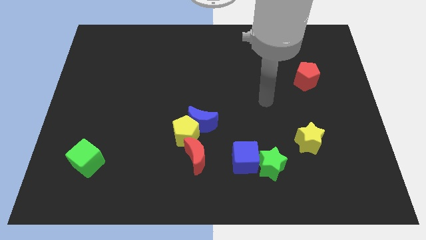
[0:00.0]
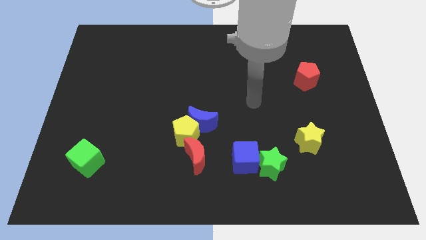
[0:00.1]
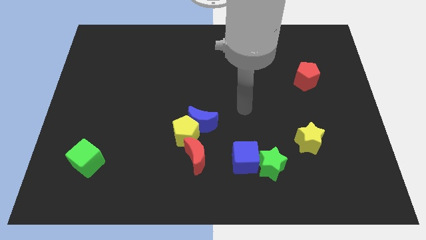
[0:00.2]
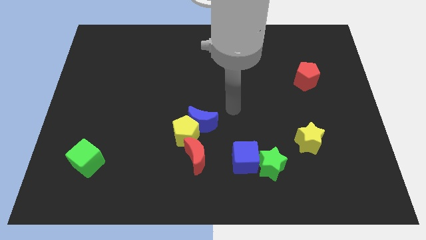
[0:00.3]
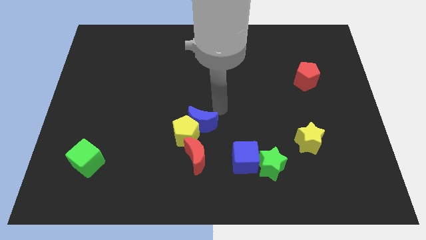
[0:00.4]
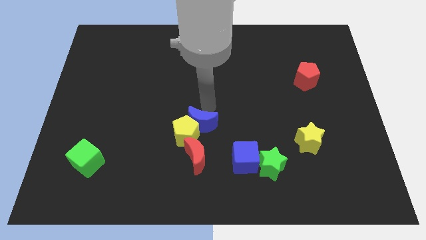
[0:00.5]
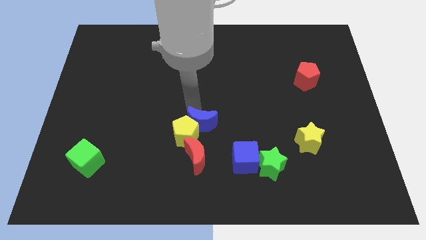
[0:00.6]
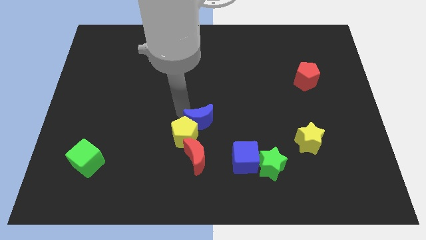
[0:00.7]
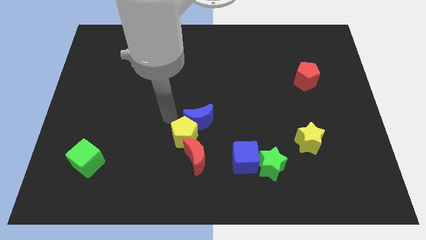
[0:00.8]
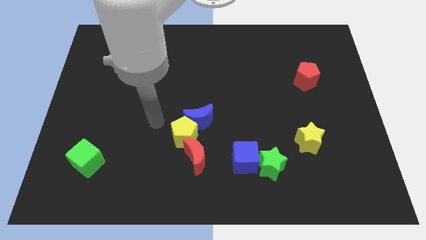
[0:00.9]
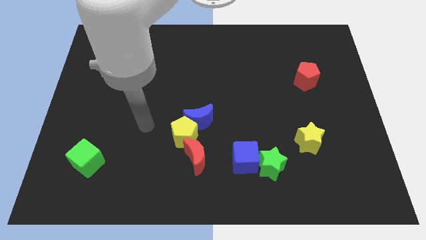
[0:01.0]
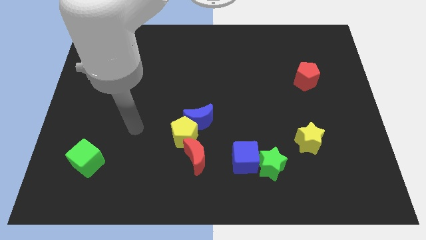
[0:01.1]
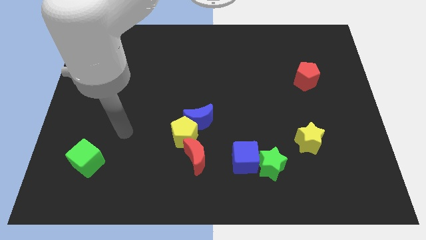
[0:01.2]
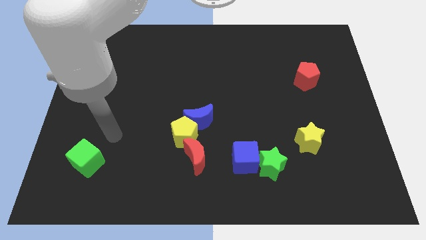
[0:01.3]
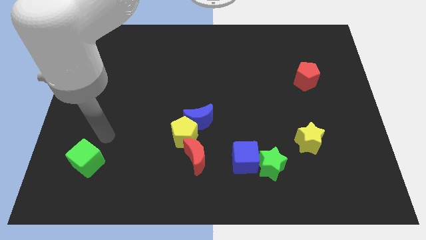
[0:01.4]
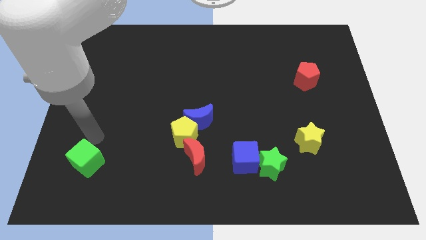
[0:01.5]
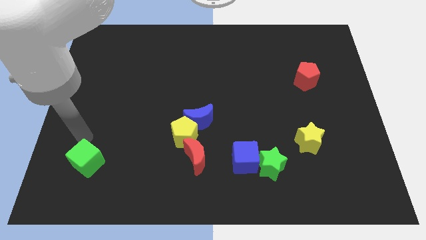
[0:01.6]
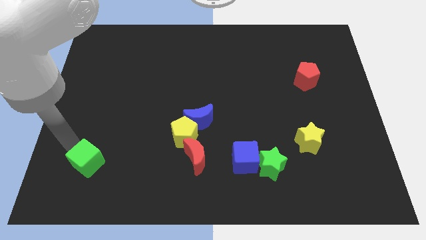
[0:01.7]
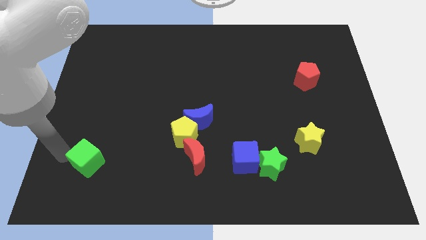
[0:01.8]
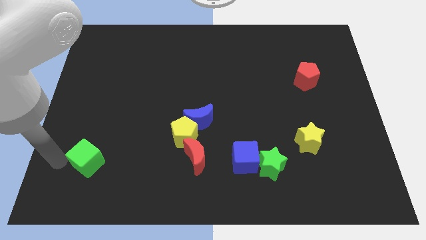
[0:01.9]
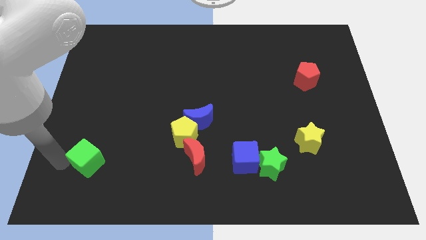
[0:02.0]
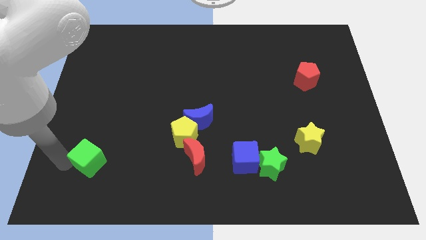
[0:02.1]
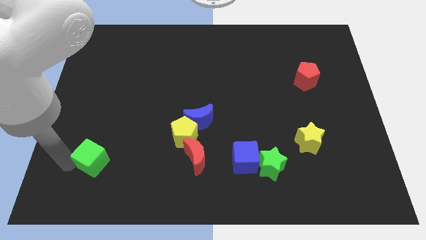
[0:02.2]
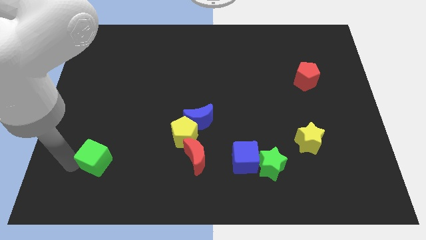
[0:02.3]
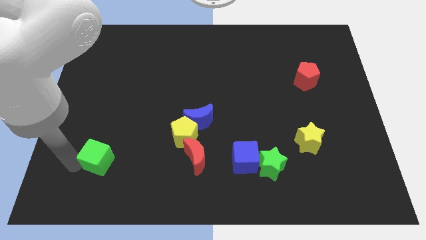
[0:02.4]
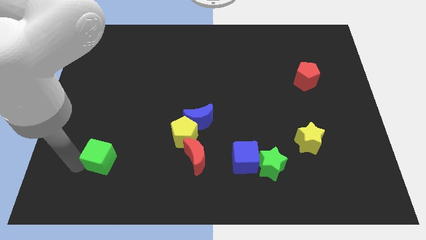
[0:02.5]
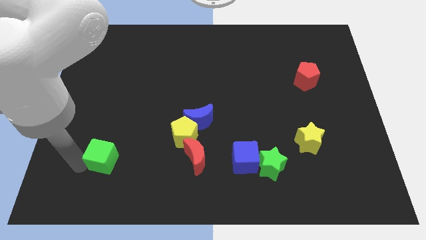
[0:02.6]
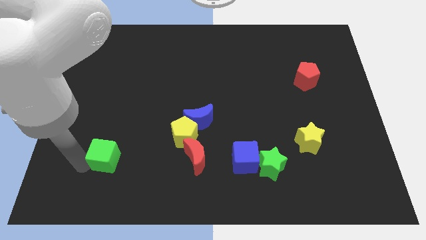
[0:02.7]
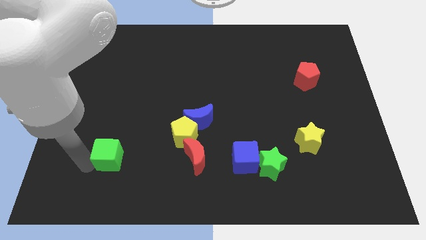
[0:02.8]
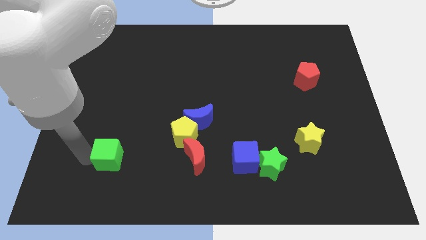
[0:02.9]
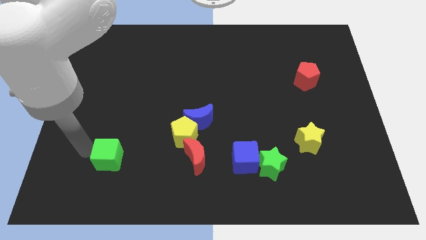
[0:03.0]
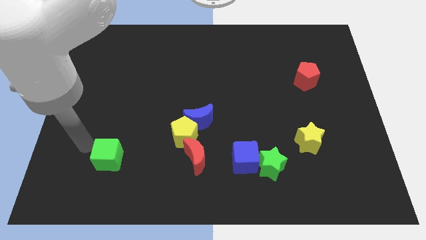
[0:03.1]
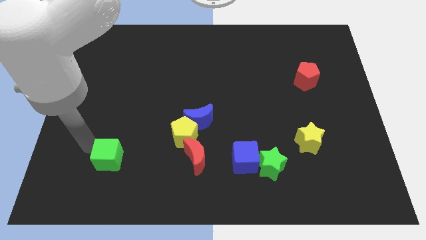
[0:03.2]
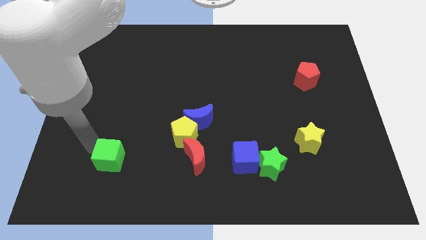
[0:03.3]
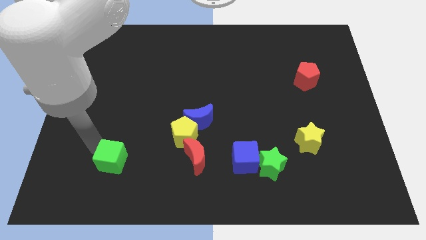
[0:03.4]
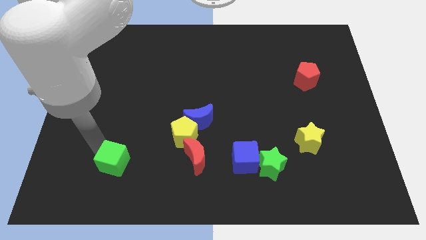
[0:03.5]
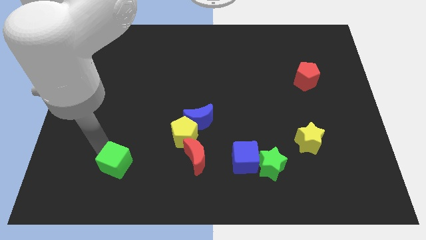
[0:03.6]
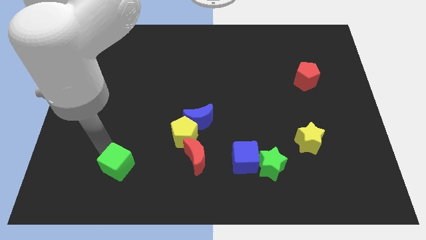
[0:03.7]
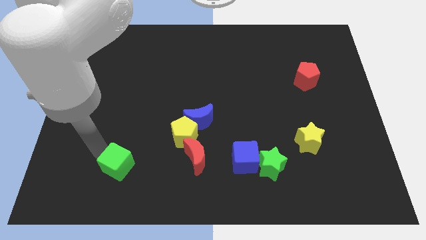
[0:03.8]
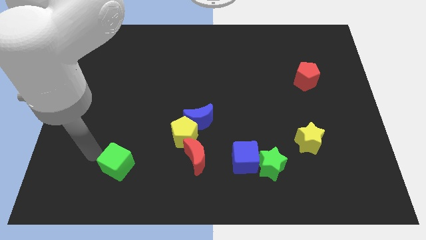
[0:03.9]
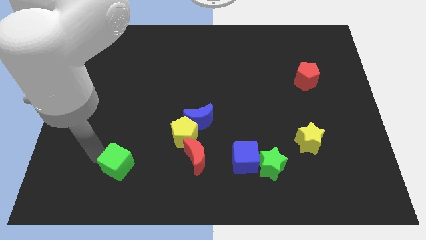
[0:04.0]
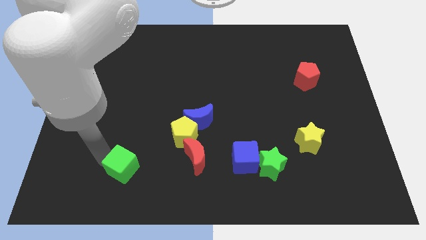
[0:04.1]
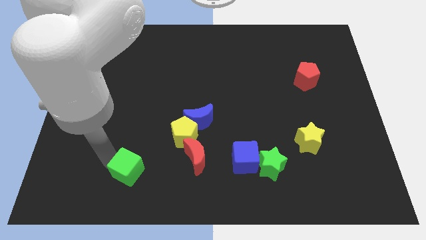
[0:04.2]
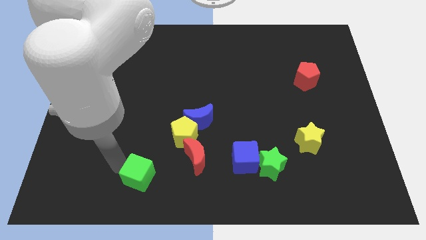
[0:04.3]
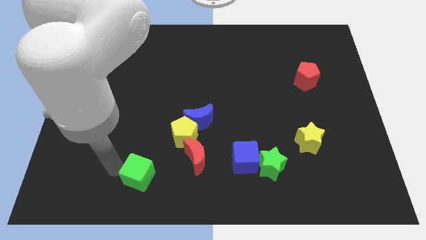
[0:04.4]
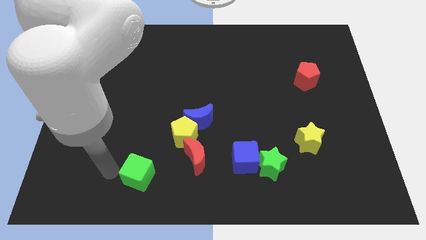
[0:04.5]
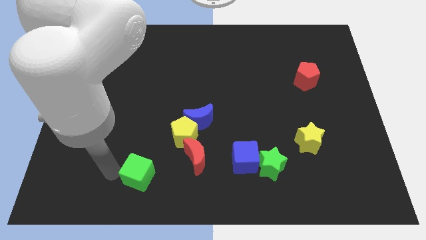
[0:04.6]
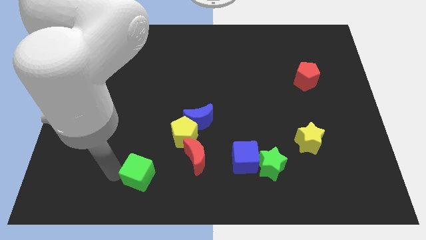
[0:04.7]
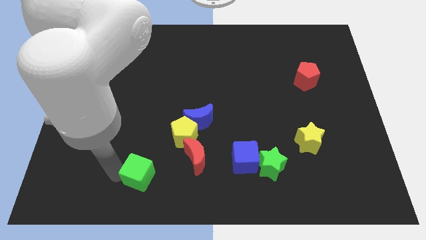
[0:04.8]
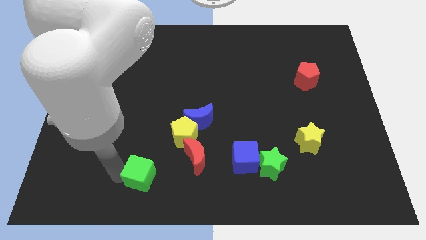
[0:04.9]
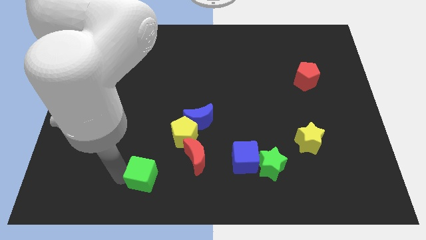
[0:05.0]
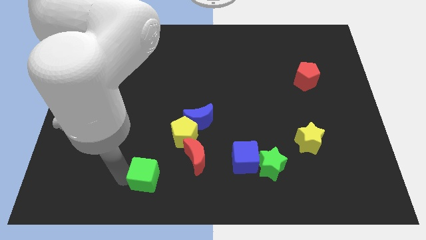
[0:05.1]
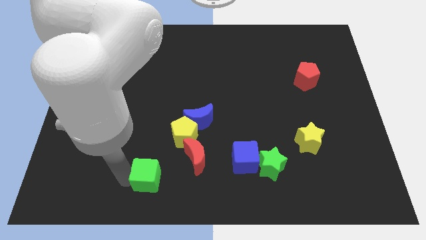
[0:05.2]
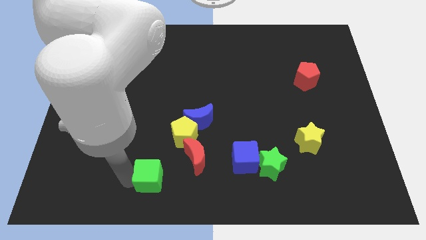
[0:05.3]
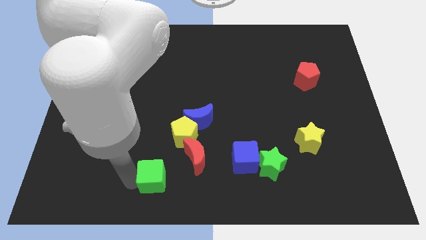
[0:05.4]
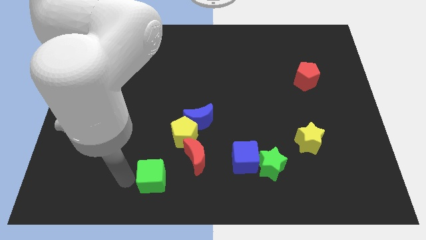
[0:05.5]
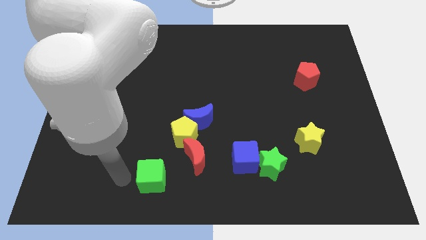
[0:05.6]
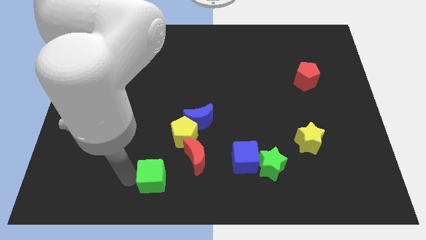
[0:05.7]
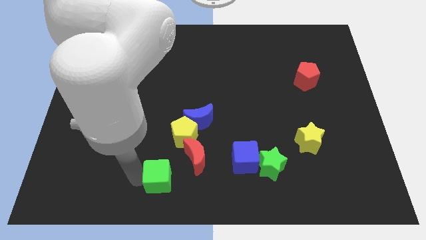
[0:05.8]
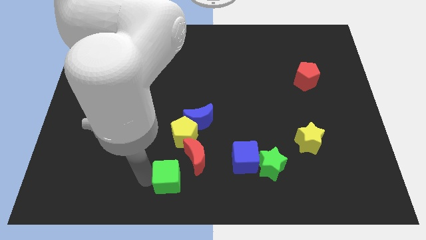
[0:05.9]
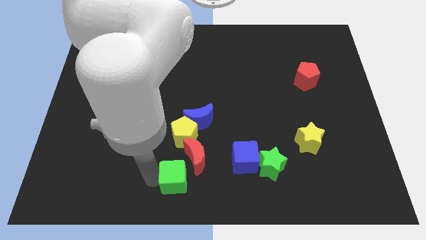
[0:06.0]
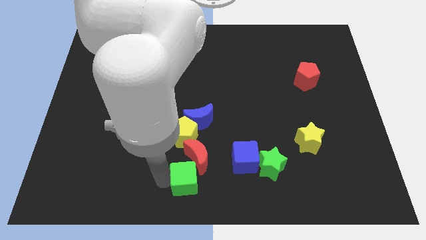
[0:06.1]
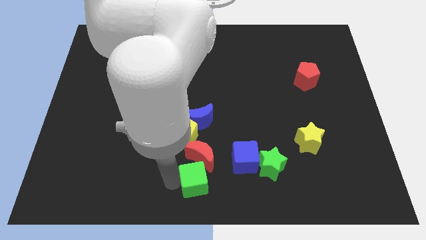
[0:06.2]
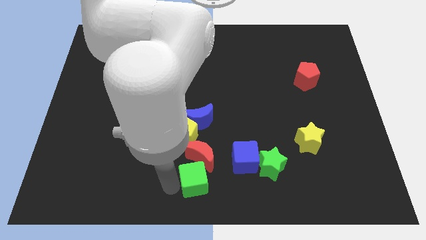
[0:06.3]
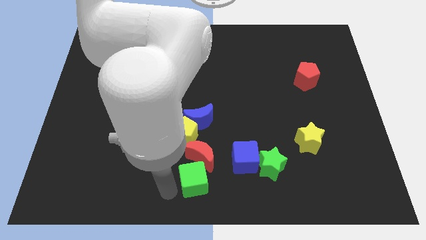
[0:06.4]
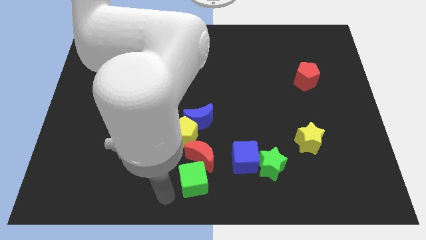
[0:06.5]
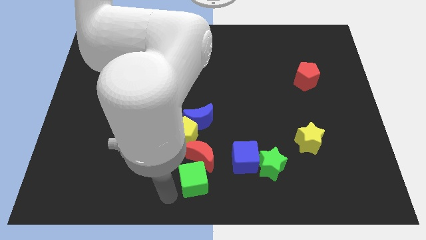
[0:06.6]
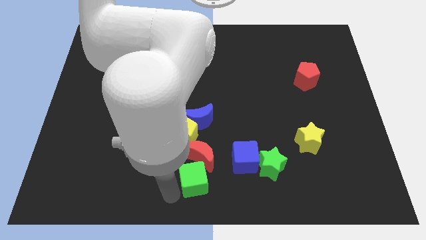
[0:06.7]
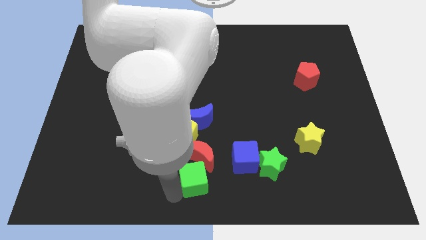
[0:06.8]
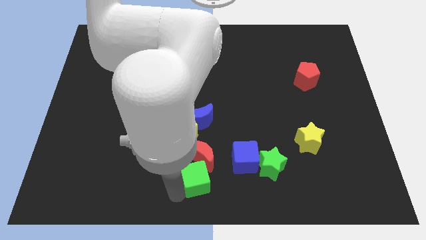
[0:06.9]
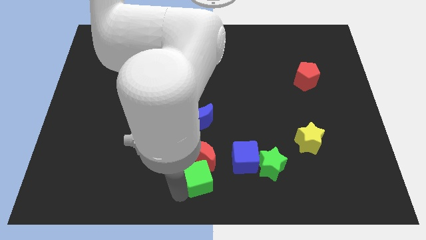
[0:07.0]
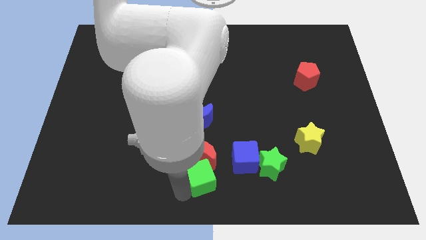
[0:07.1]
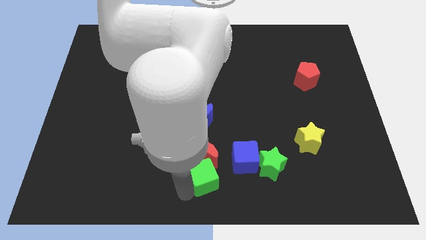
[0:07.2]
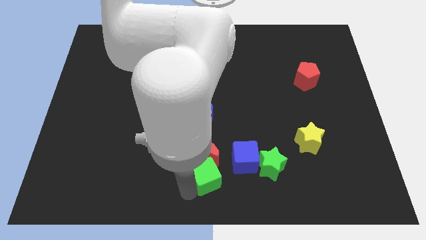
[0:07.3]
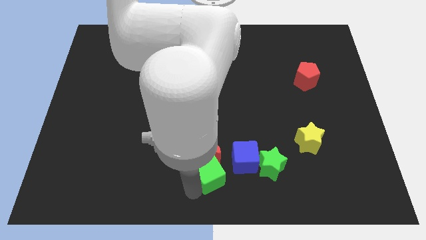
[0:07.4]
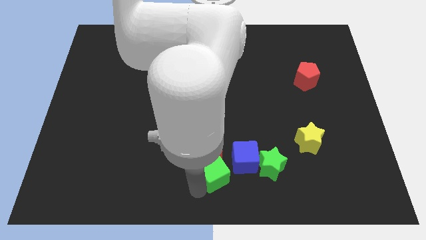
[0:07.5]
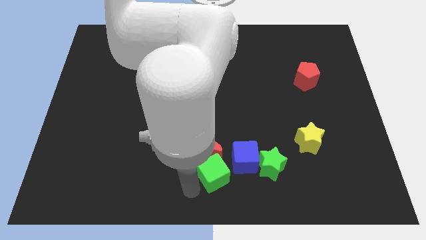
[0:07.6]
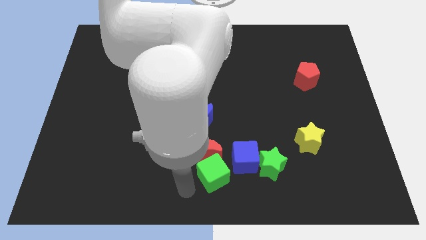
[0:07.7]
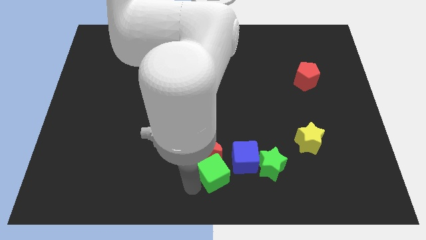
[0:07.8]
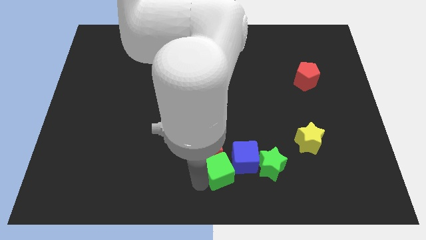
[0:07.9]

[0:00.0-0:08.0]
push the green cube close to the blue cube
